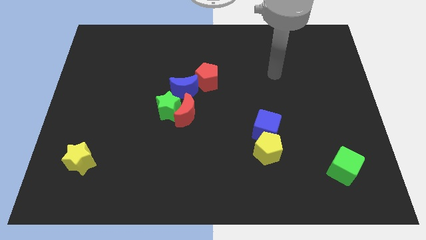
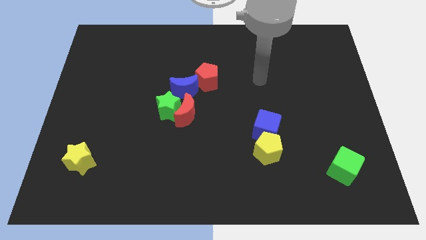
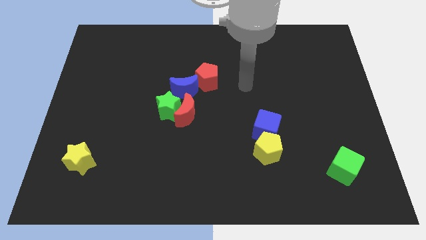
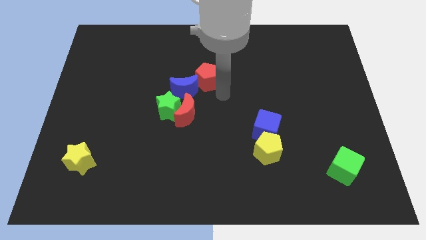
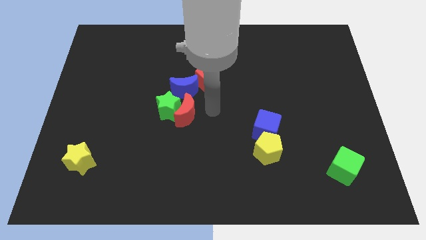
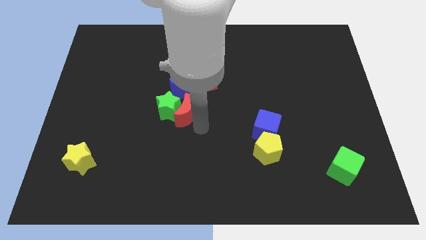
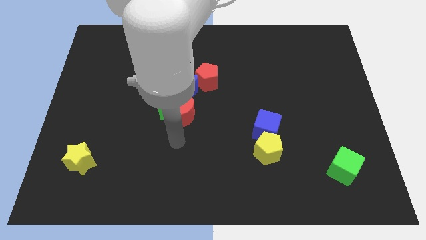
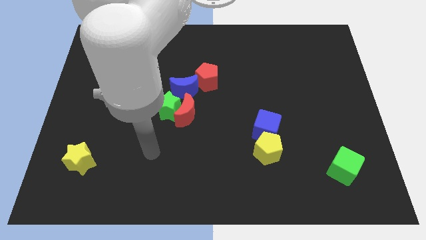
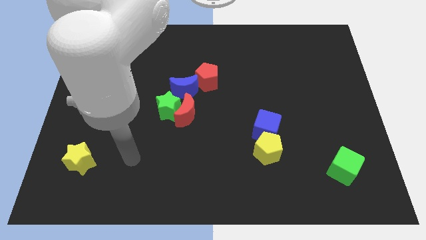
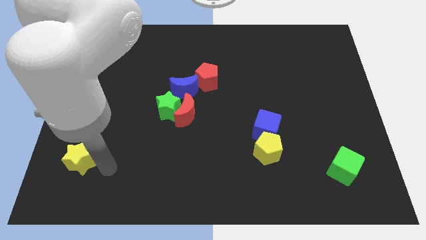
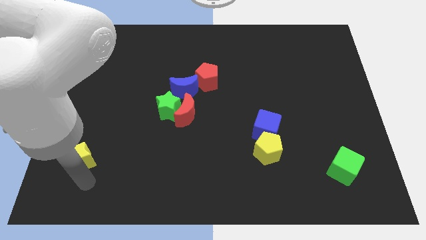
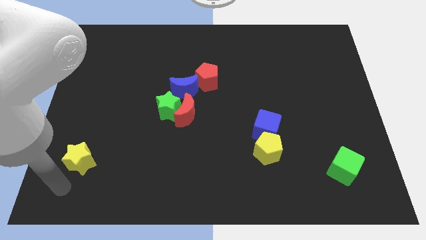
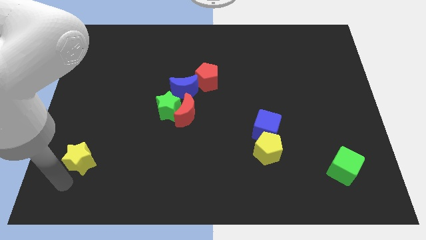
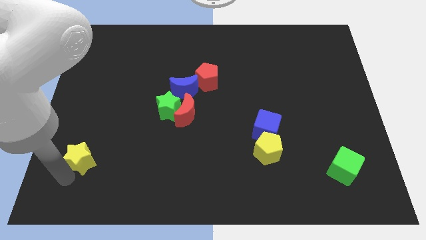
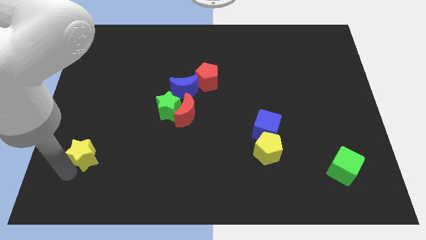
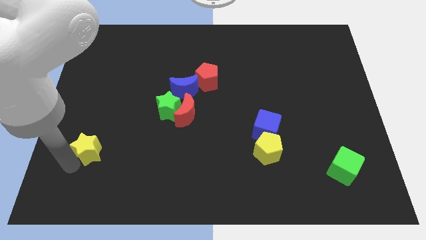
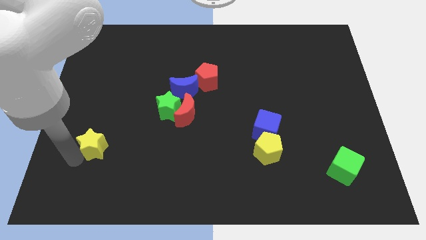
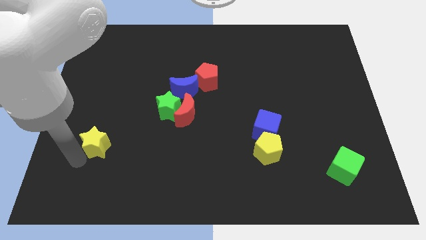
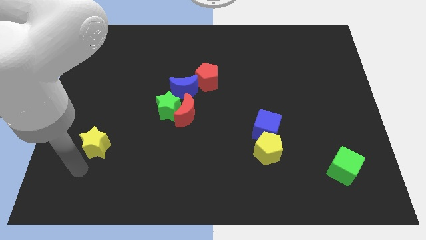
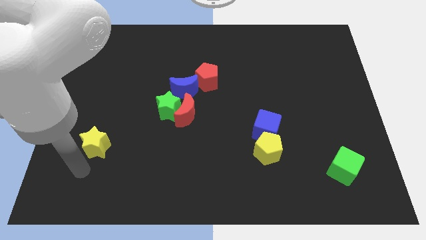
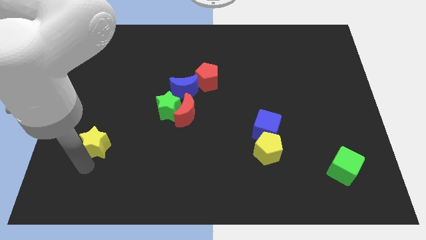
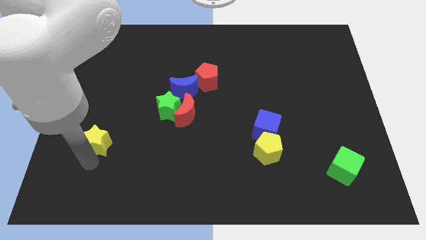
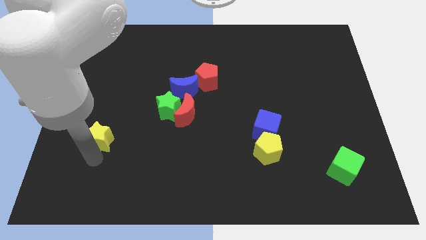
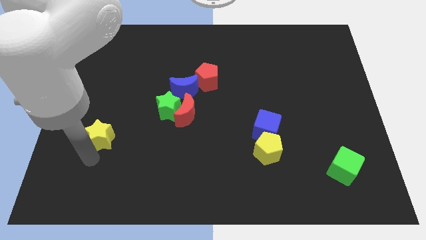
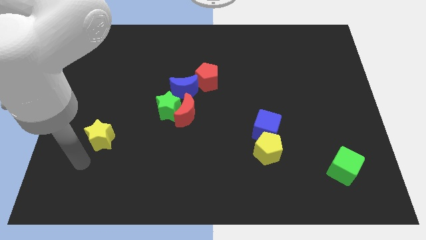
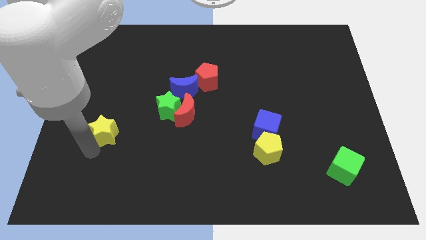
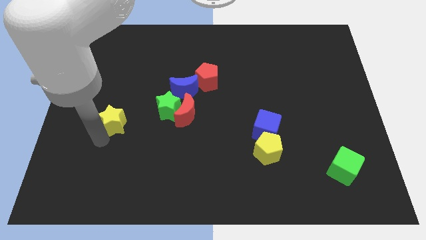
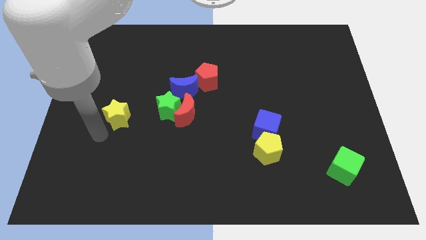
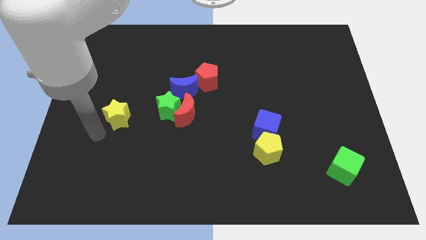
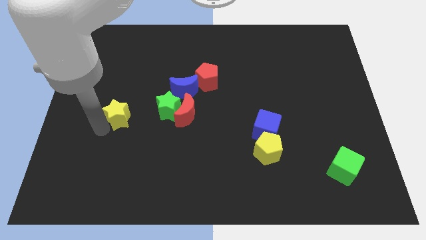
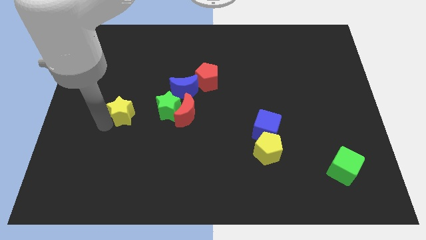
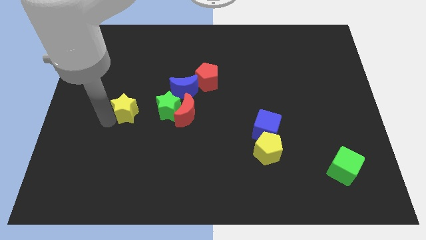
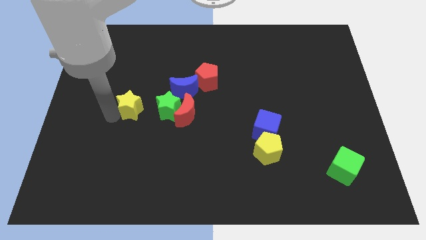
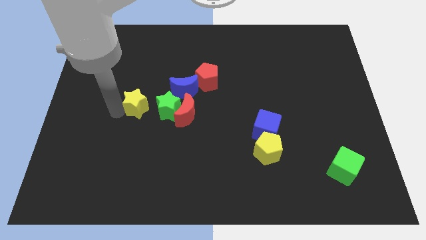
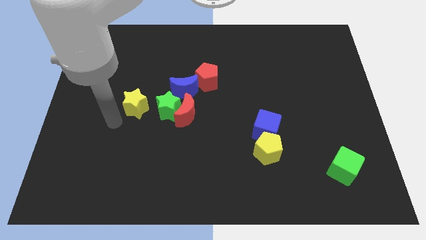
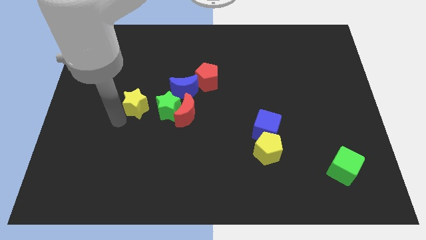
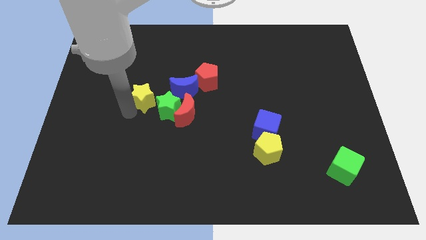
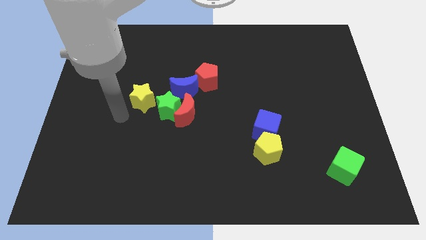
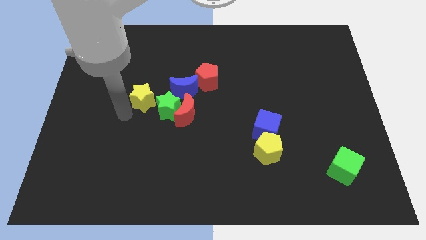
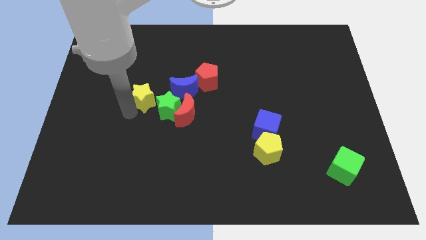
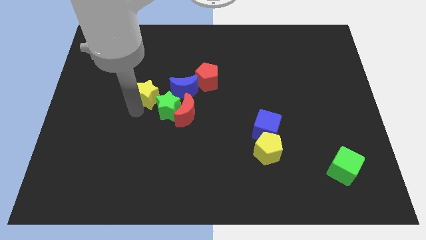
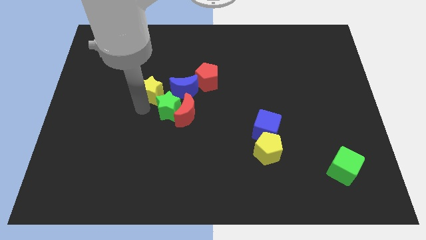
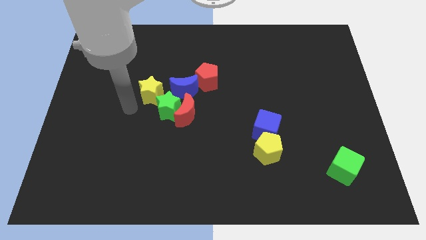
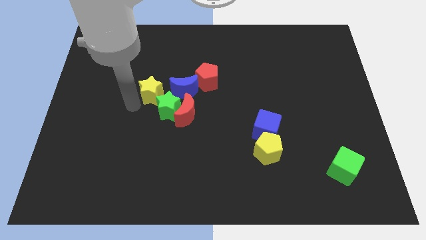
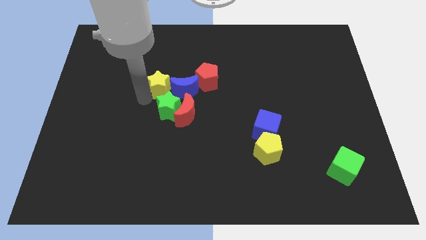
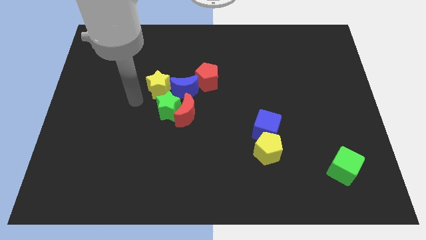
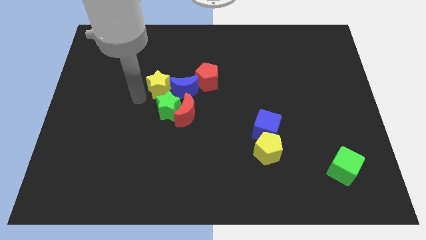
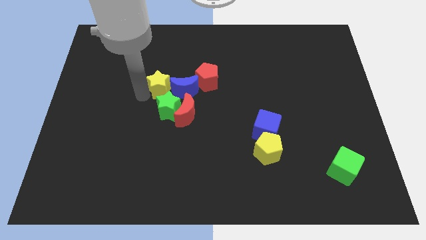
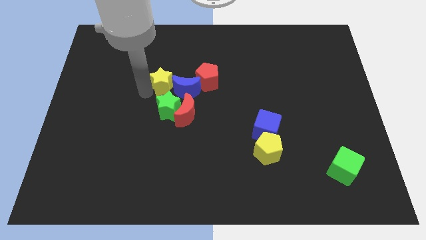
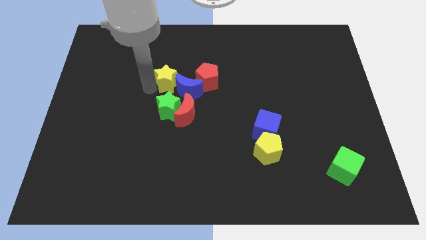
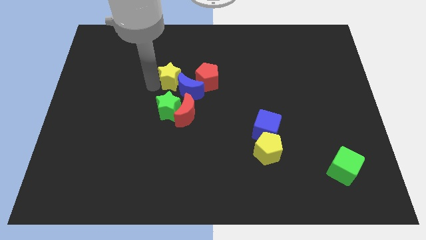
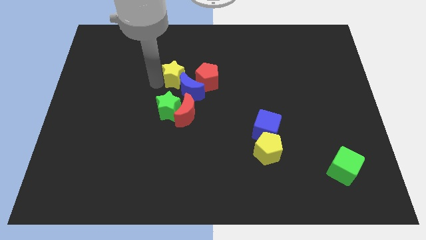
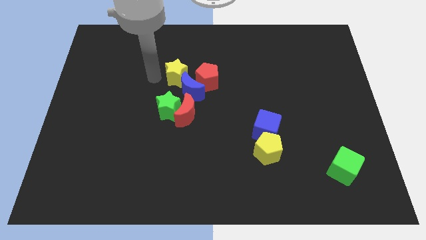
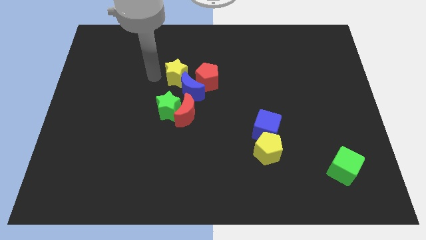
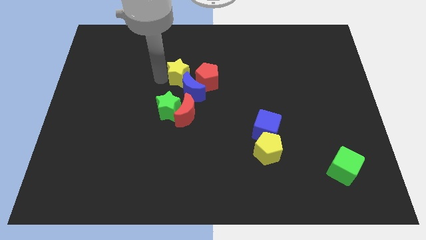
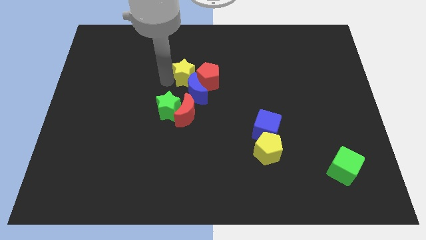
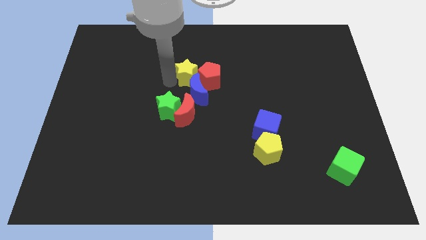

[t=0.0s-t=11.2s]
push the yellow star to the red pentagon

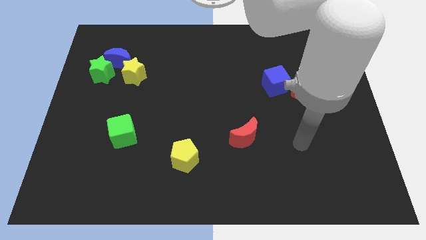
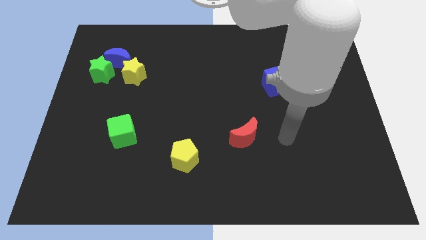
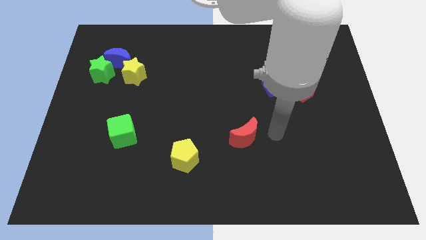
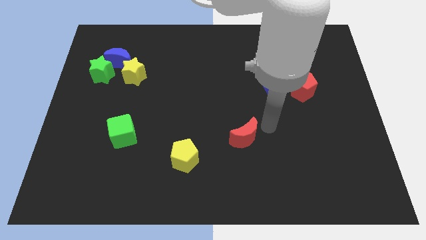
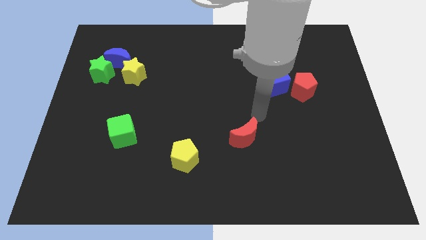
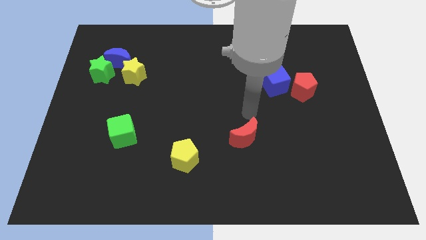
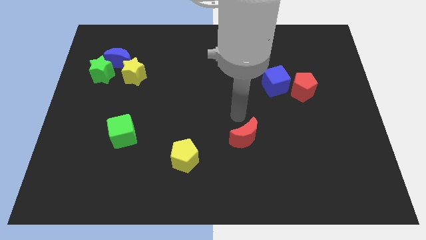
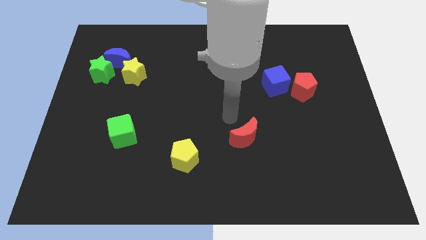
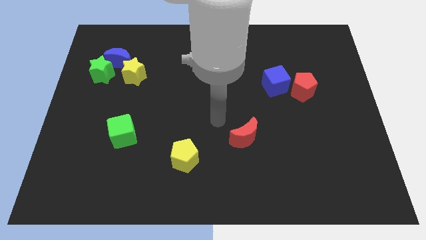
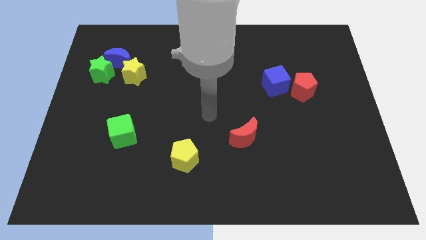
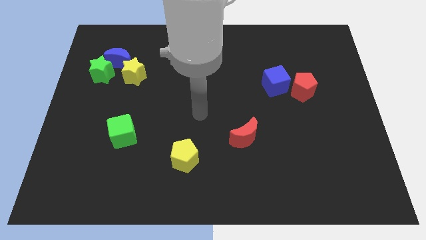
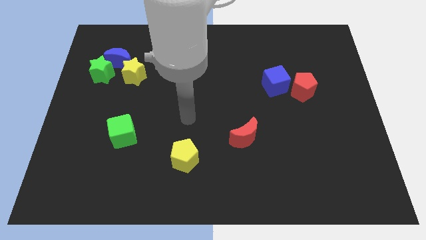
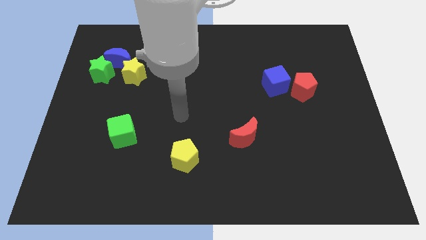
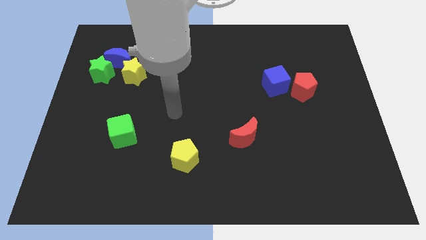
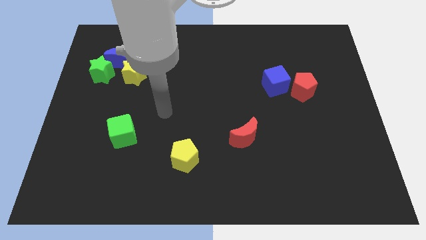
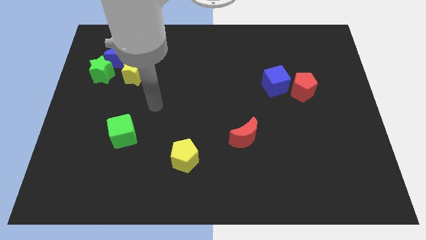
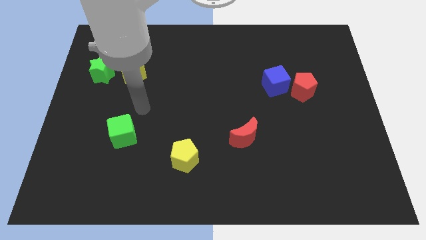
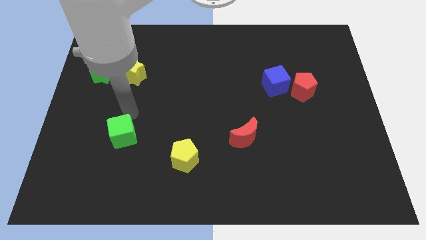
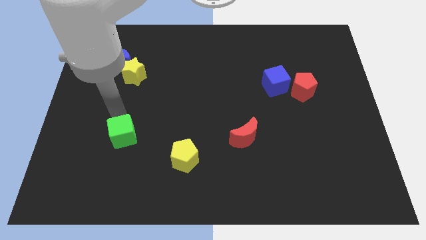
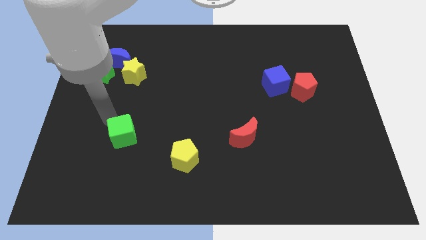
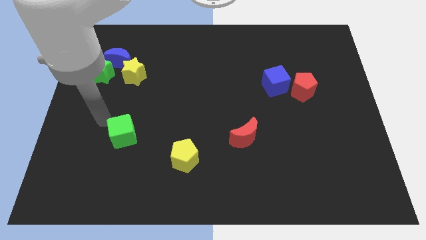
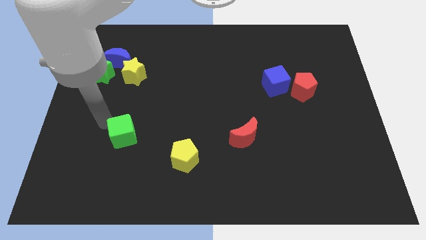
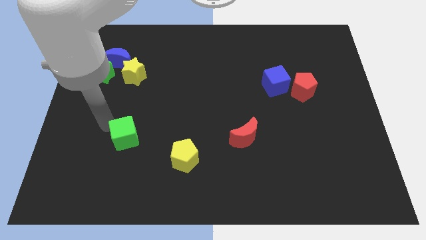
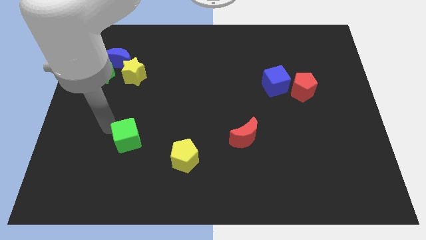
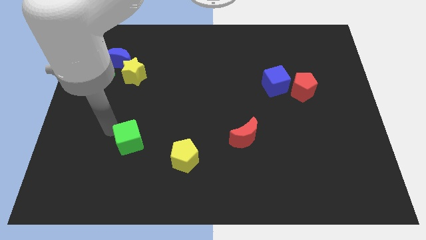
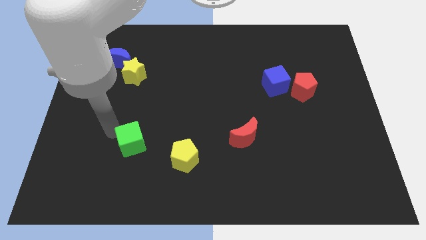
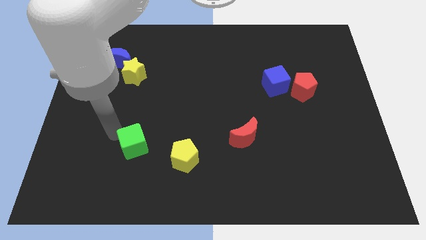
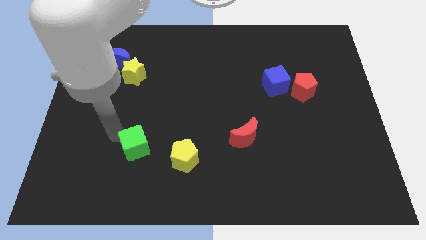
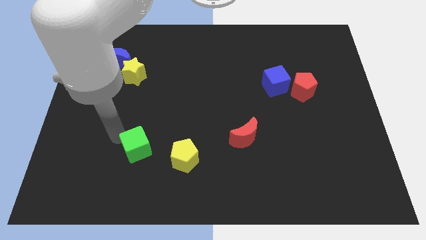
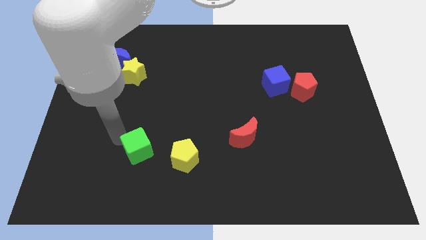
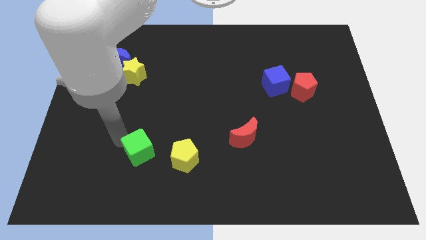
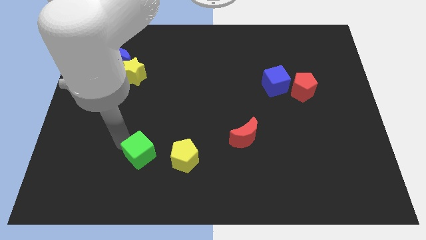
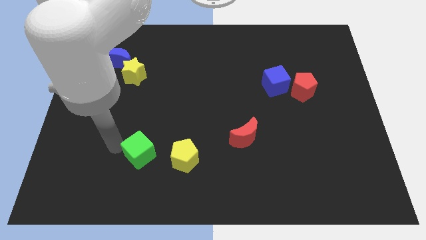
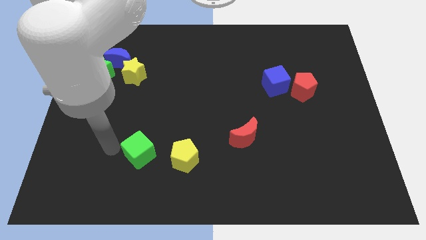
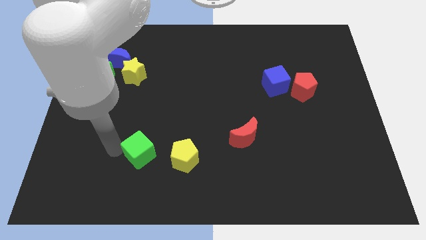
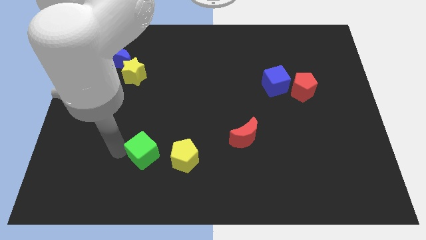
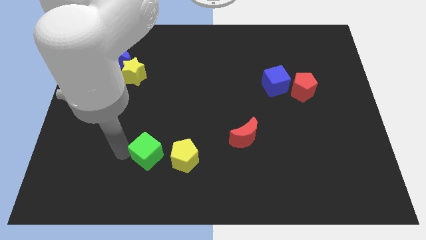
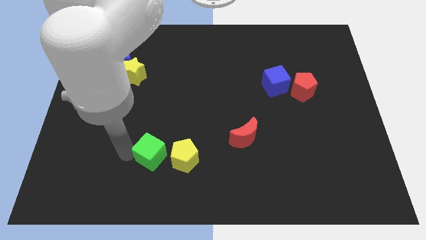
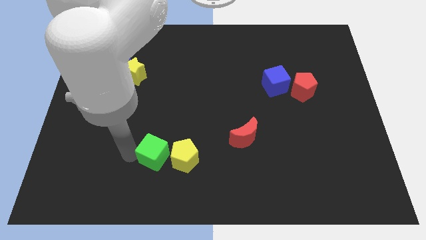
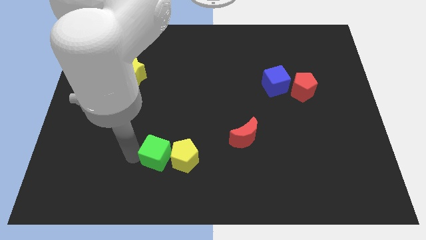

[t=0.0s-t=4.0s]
move the green cube next to the yellow pentagon
